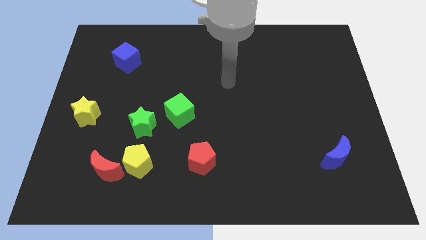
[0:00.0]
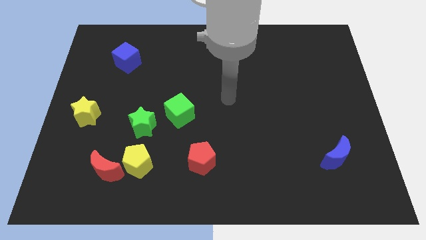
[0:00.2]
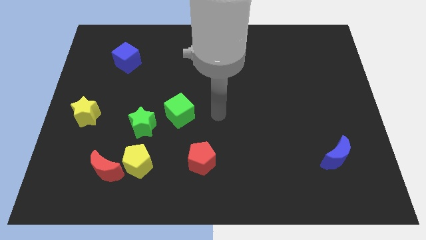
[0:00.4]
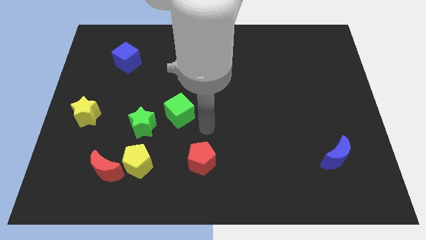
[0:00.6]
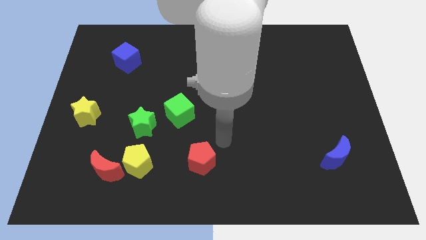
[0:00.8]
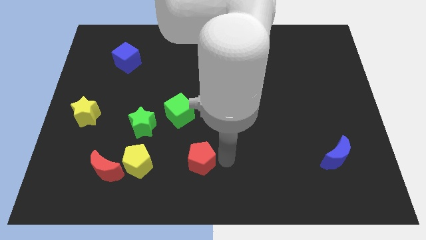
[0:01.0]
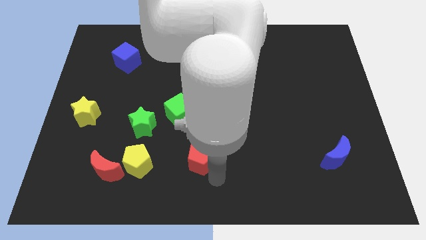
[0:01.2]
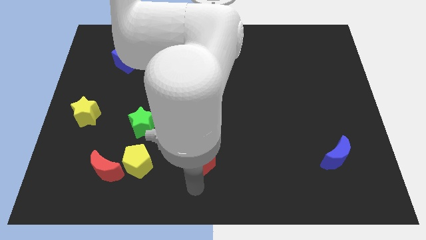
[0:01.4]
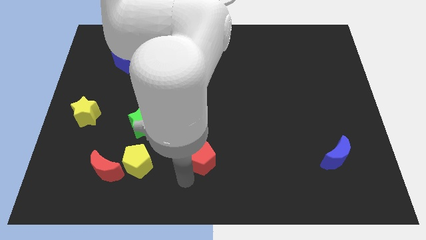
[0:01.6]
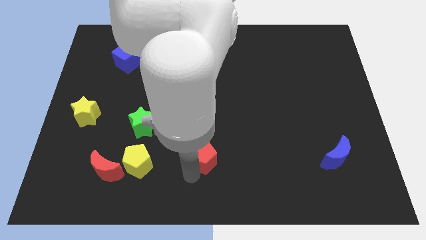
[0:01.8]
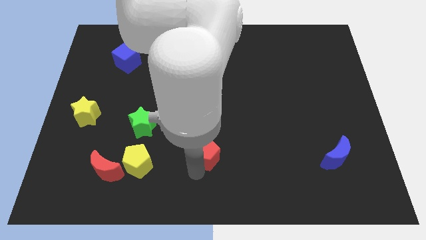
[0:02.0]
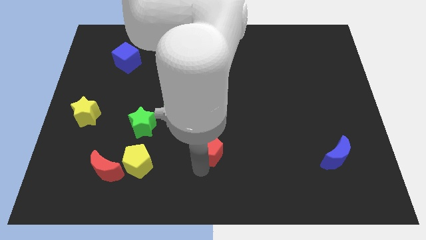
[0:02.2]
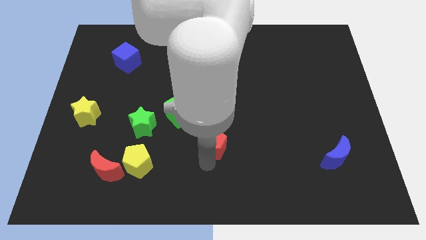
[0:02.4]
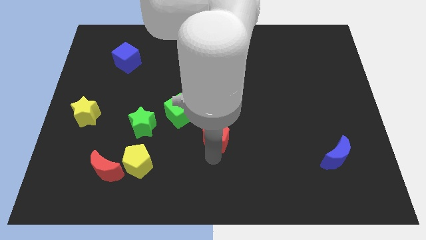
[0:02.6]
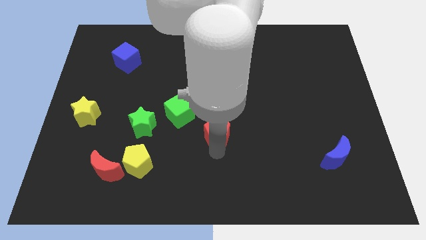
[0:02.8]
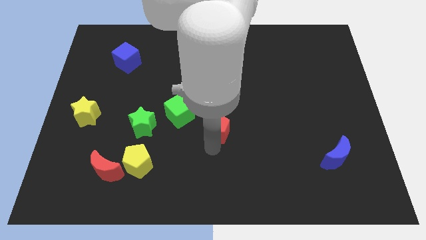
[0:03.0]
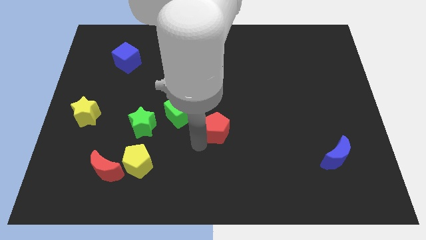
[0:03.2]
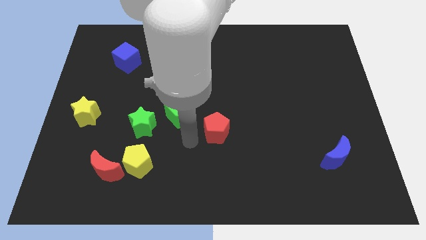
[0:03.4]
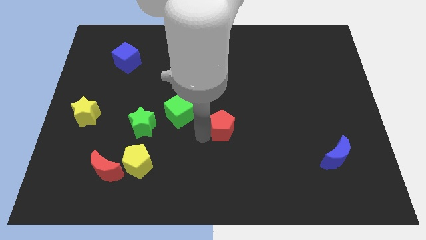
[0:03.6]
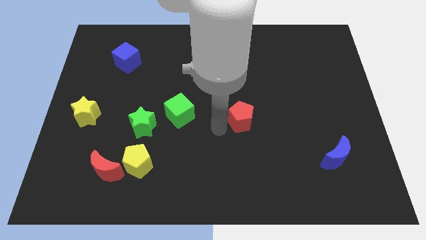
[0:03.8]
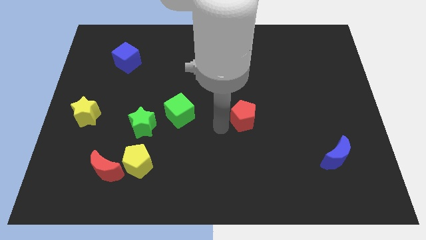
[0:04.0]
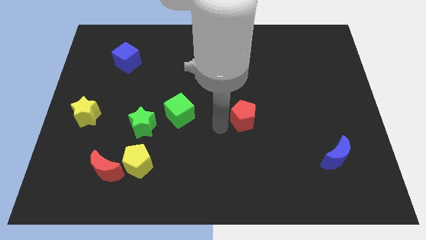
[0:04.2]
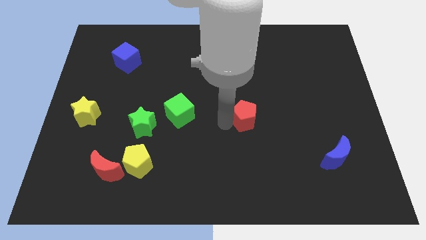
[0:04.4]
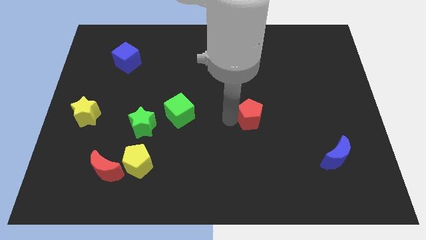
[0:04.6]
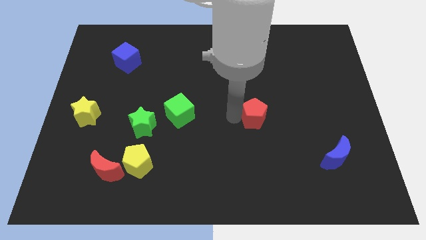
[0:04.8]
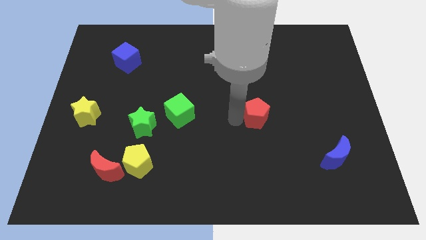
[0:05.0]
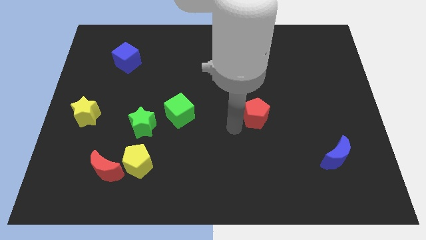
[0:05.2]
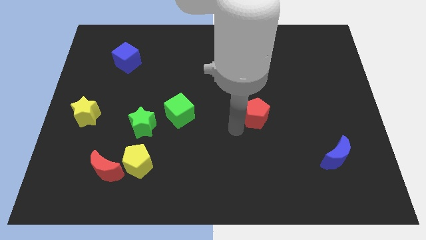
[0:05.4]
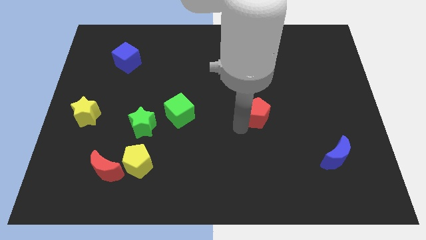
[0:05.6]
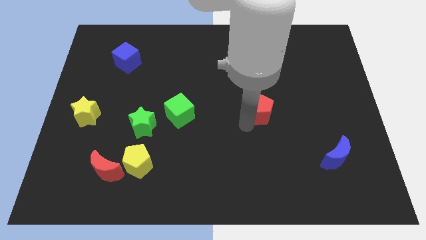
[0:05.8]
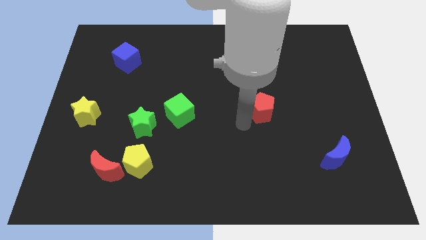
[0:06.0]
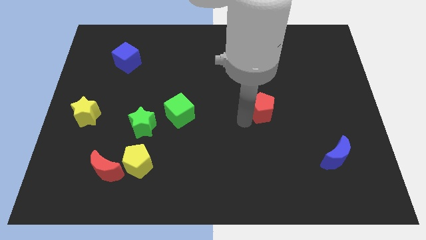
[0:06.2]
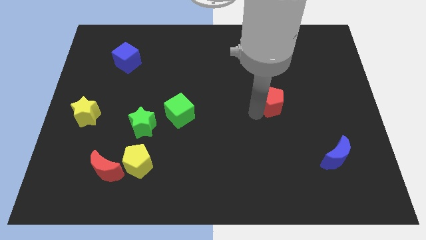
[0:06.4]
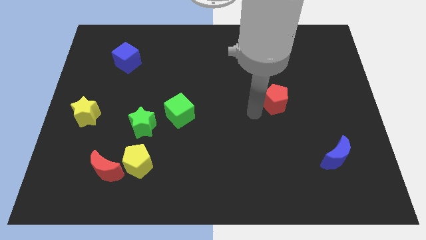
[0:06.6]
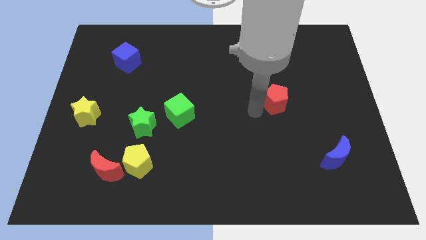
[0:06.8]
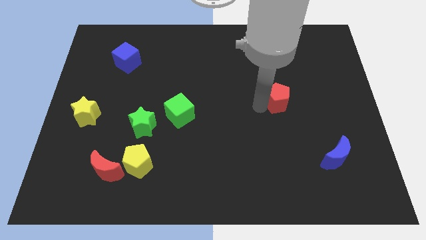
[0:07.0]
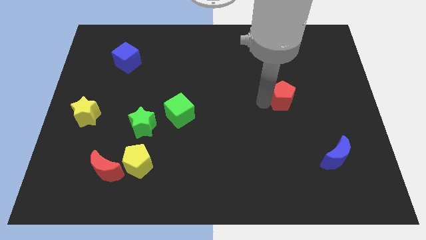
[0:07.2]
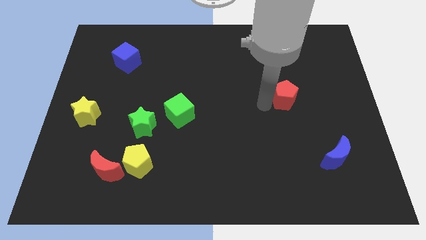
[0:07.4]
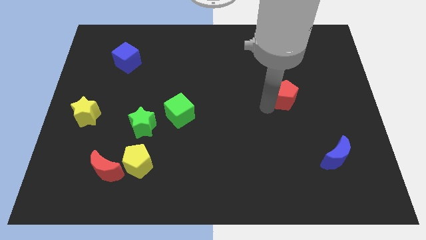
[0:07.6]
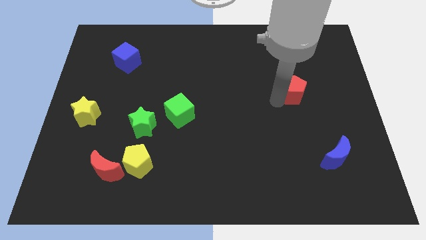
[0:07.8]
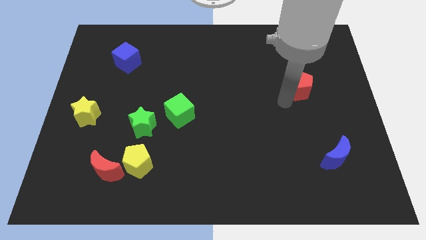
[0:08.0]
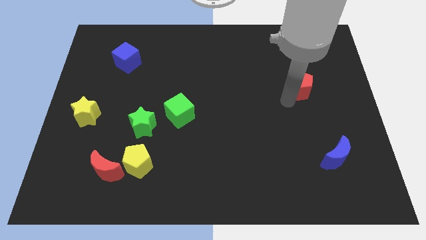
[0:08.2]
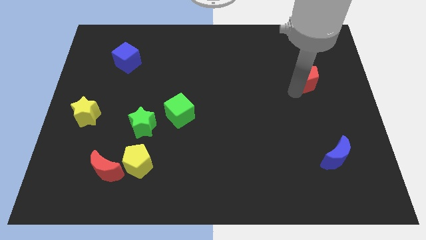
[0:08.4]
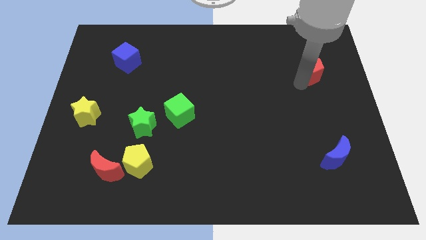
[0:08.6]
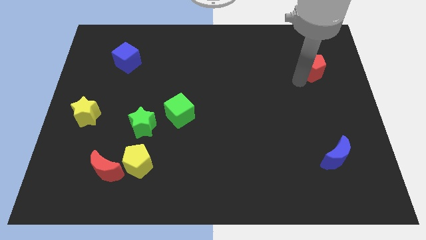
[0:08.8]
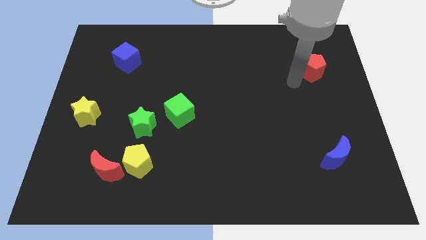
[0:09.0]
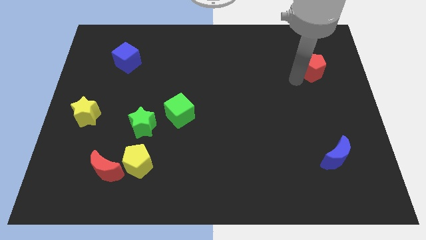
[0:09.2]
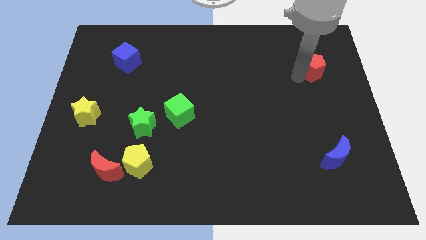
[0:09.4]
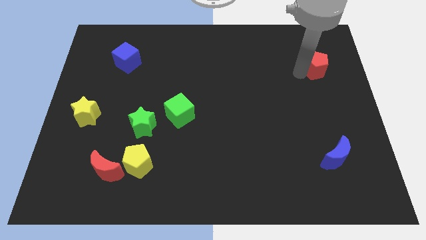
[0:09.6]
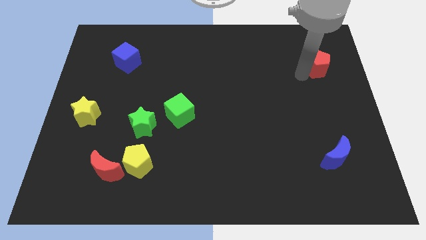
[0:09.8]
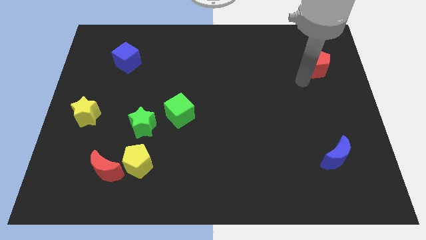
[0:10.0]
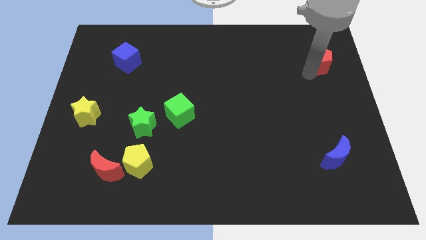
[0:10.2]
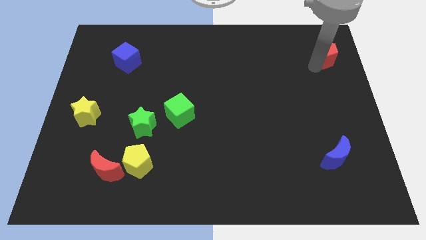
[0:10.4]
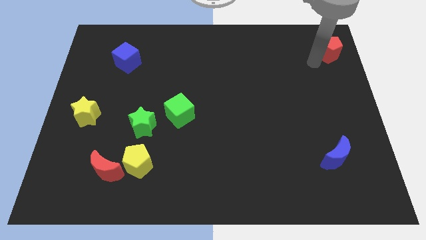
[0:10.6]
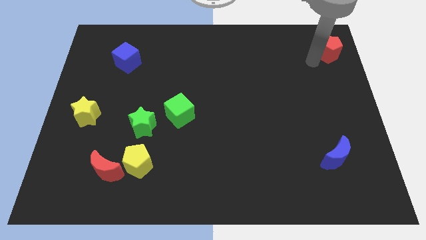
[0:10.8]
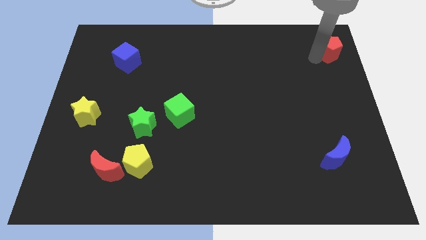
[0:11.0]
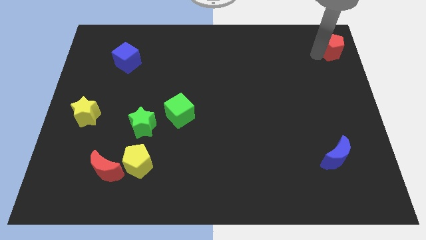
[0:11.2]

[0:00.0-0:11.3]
push the red pentagon to the top right of the board
